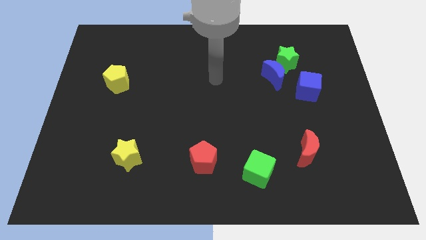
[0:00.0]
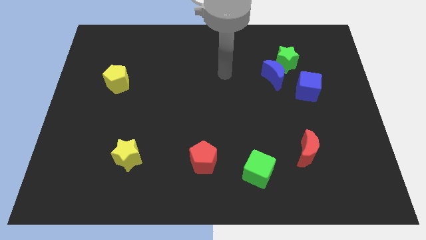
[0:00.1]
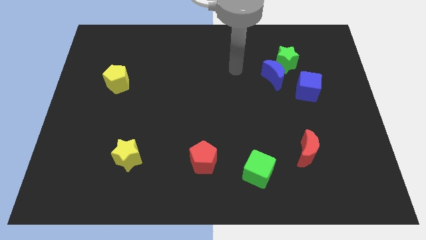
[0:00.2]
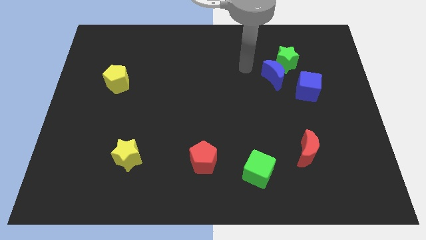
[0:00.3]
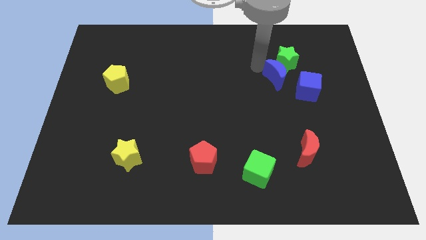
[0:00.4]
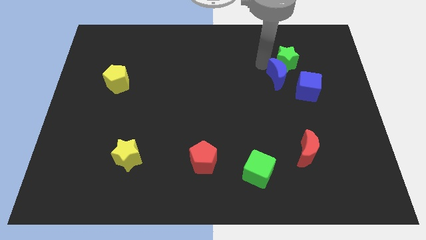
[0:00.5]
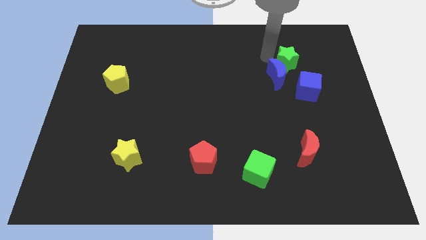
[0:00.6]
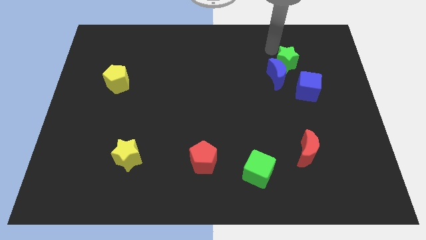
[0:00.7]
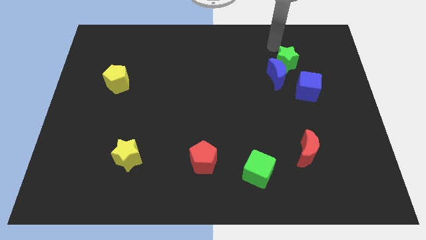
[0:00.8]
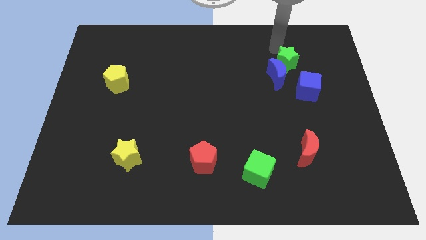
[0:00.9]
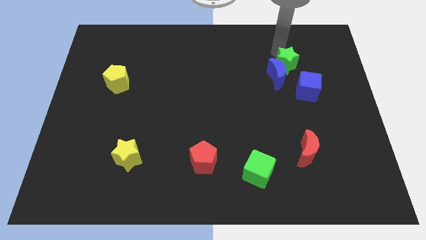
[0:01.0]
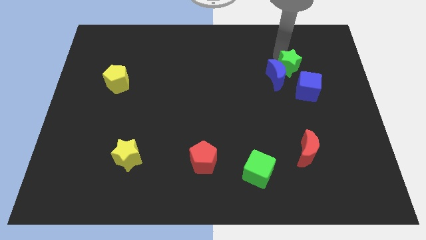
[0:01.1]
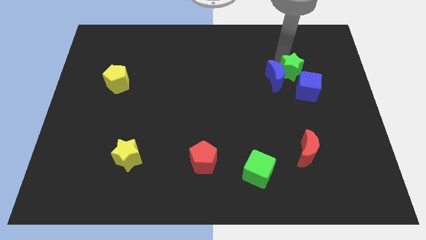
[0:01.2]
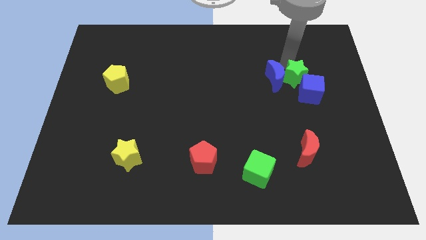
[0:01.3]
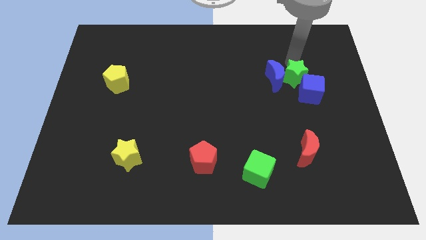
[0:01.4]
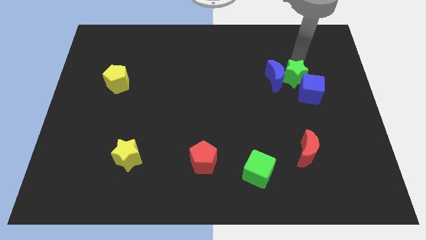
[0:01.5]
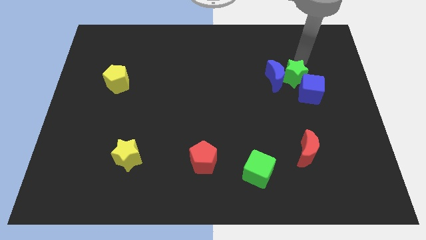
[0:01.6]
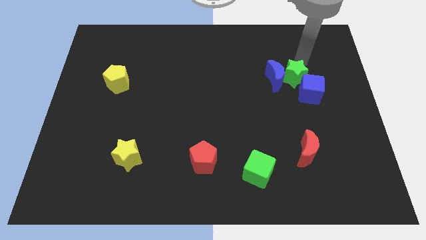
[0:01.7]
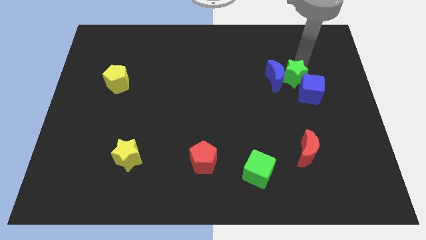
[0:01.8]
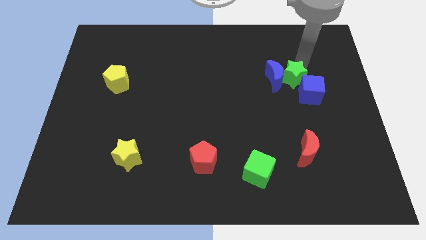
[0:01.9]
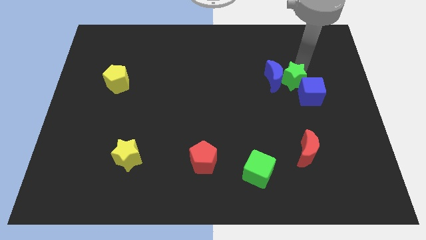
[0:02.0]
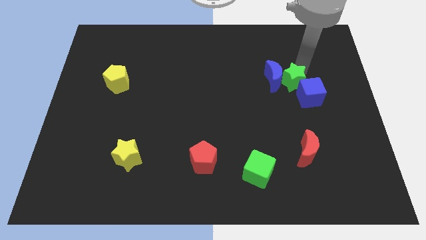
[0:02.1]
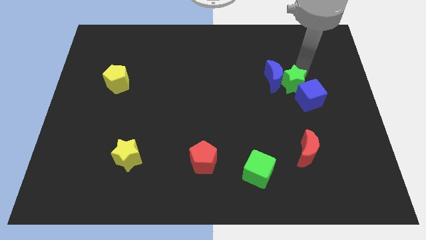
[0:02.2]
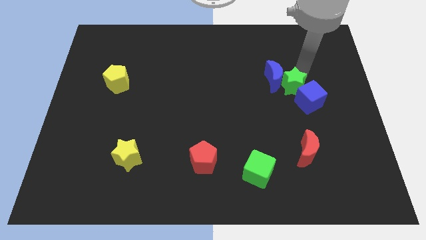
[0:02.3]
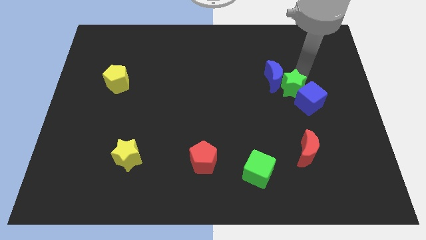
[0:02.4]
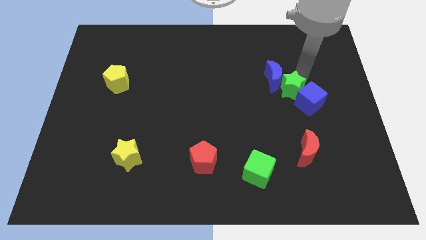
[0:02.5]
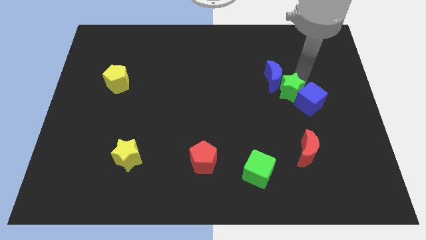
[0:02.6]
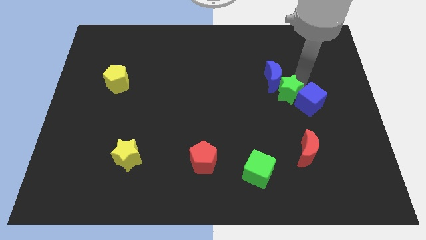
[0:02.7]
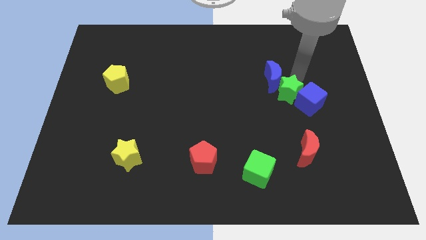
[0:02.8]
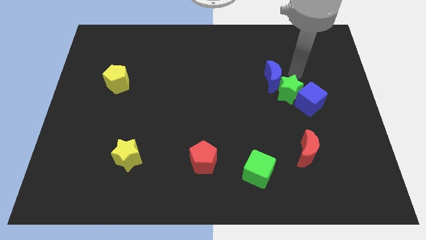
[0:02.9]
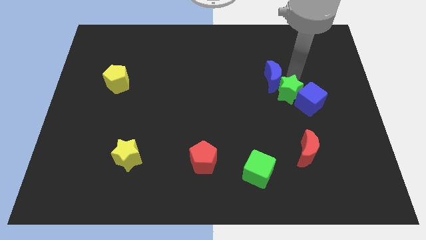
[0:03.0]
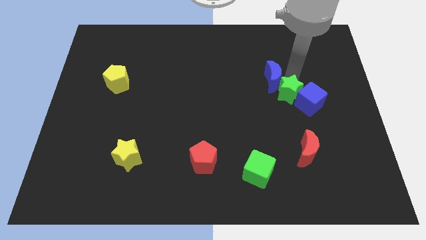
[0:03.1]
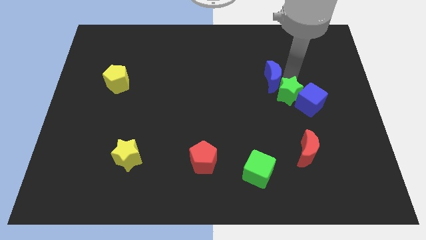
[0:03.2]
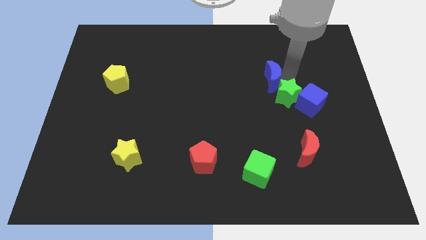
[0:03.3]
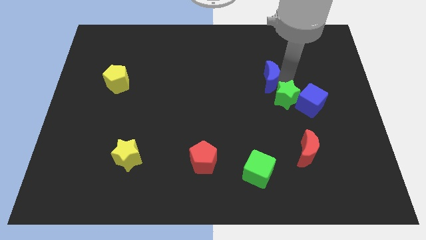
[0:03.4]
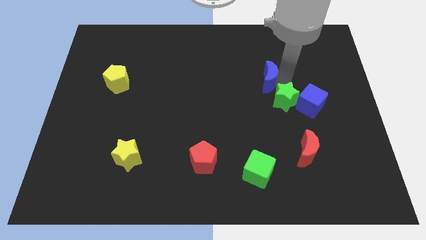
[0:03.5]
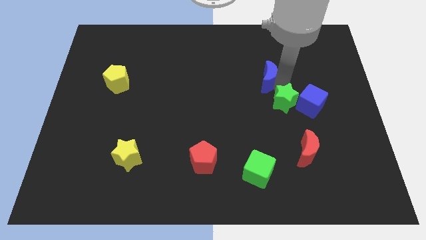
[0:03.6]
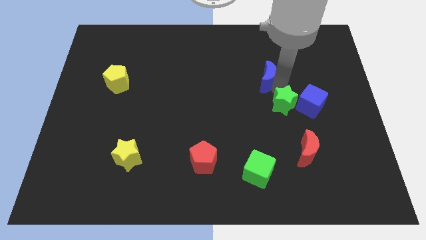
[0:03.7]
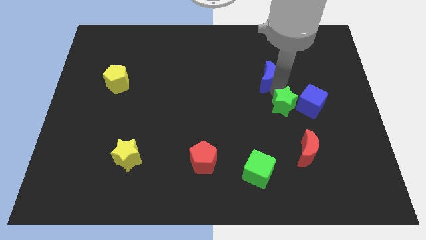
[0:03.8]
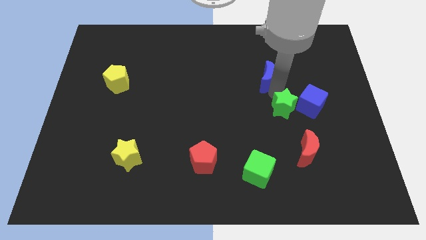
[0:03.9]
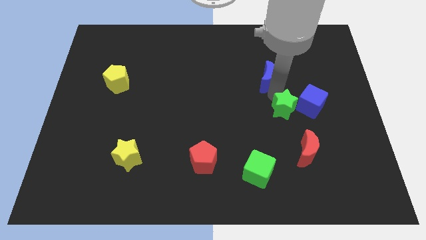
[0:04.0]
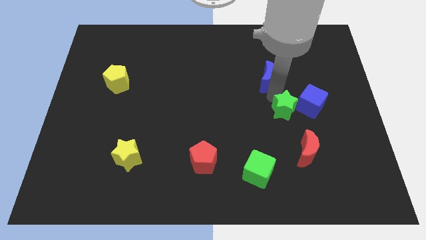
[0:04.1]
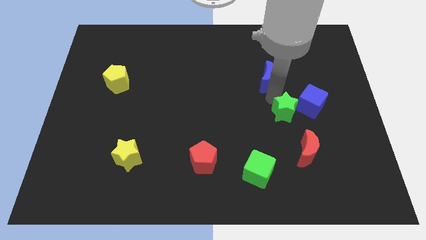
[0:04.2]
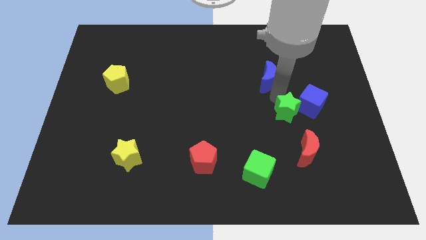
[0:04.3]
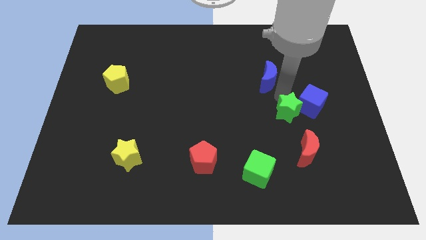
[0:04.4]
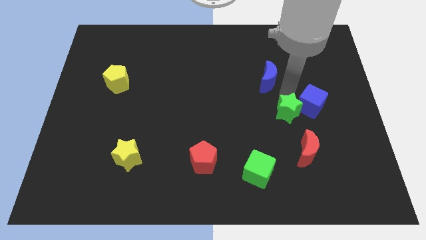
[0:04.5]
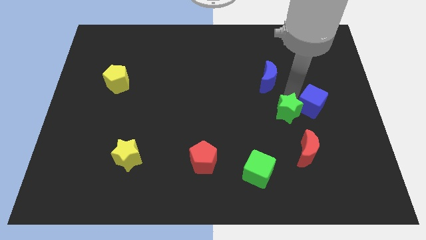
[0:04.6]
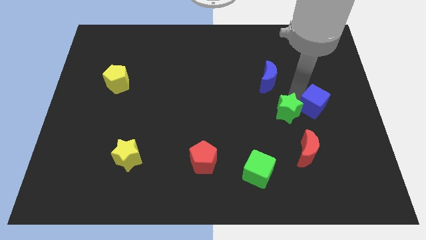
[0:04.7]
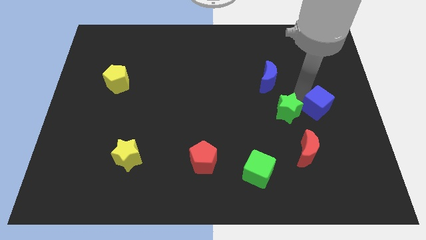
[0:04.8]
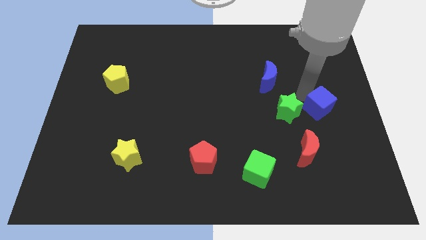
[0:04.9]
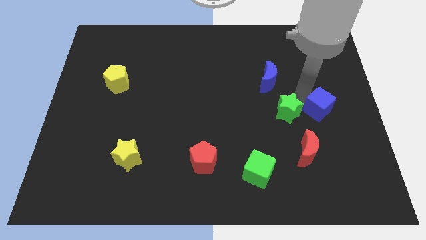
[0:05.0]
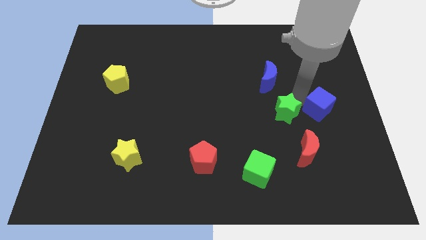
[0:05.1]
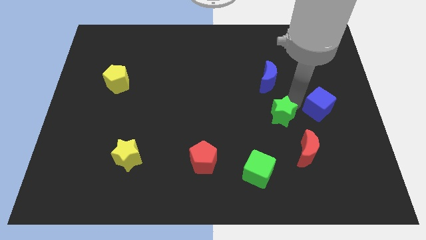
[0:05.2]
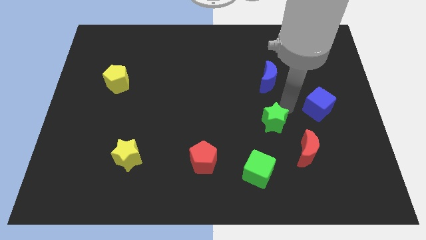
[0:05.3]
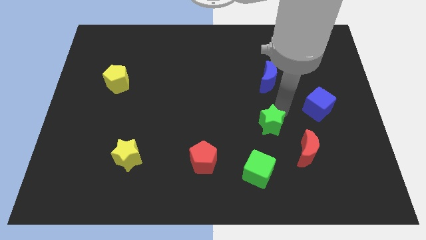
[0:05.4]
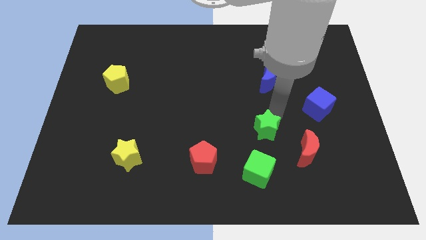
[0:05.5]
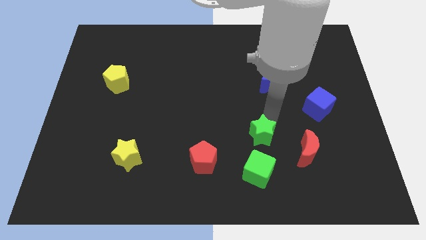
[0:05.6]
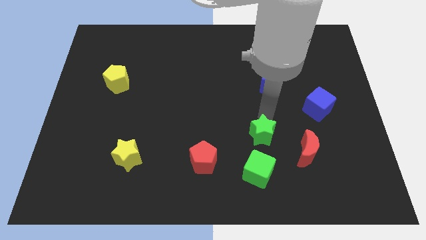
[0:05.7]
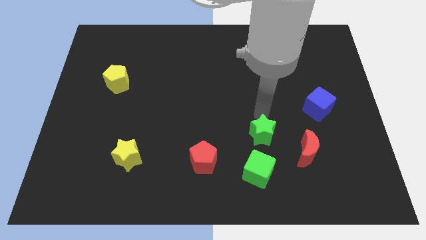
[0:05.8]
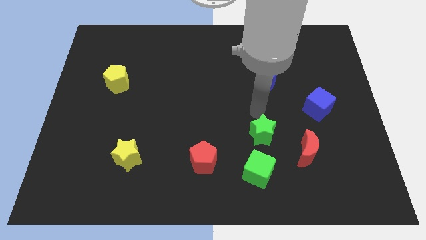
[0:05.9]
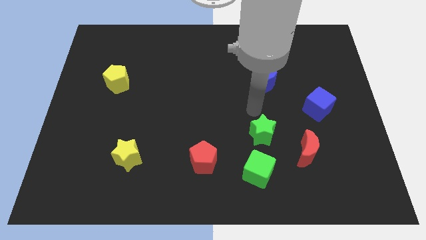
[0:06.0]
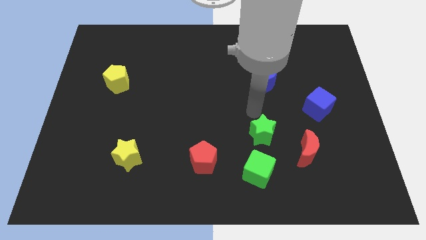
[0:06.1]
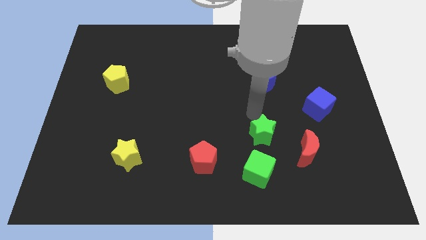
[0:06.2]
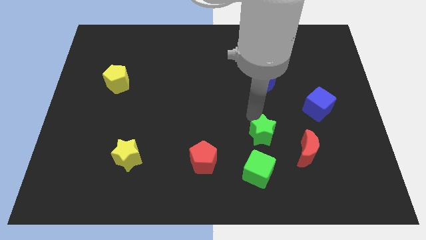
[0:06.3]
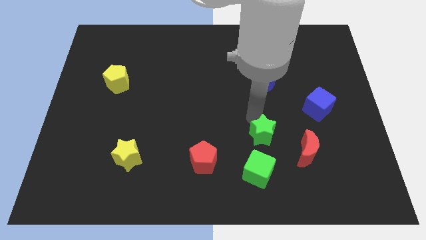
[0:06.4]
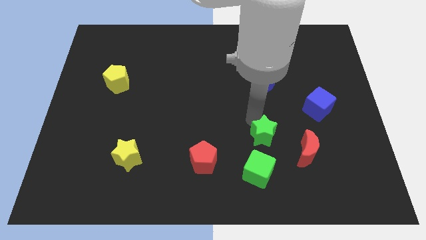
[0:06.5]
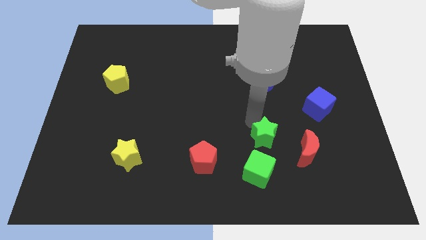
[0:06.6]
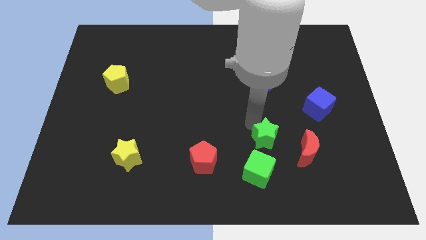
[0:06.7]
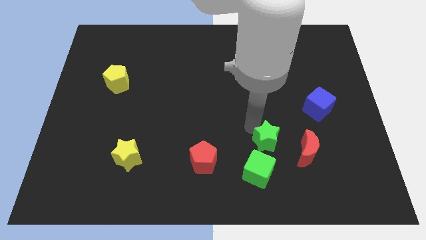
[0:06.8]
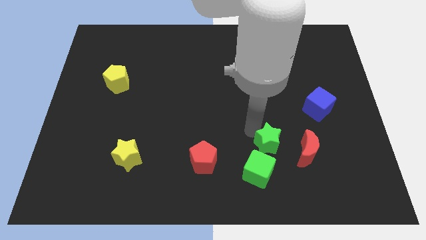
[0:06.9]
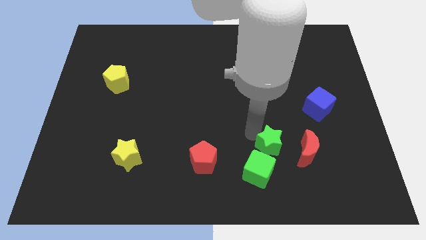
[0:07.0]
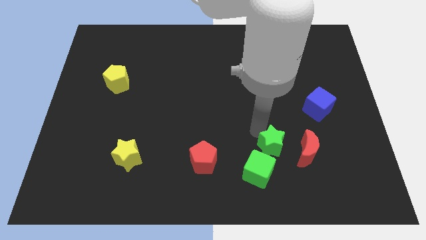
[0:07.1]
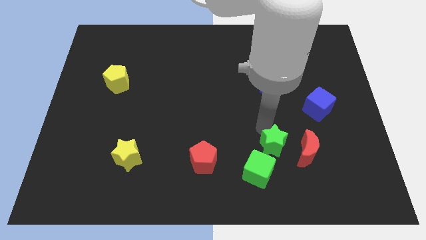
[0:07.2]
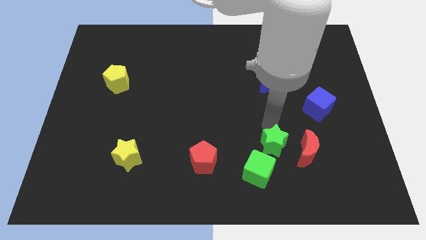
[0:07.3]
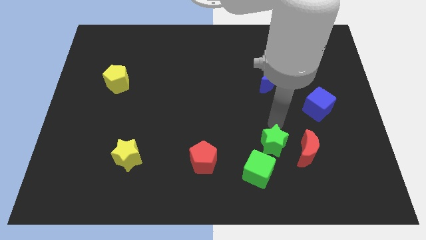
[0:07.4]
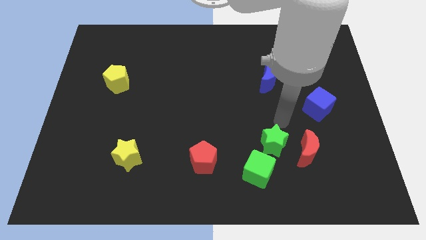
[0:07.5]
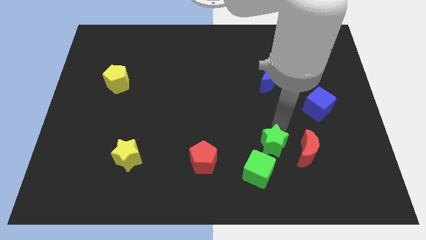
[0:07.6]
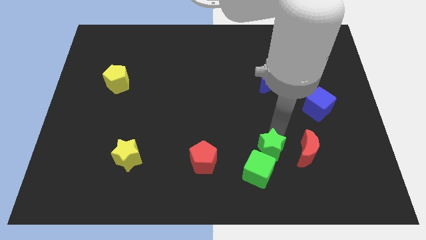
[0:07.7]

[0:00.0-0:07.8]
push the green star towards the green cube
